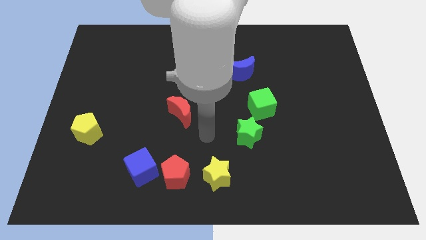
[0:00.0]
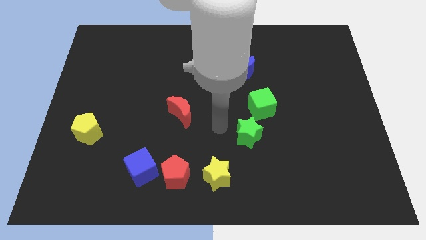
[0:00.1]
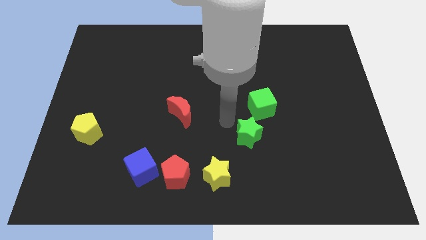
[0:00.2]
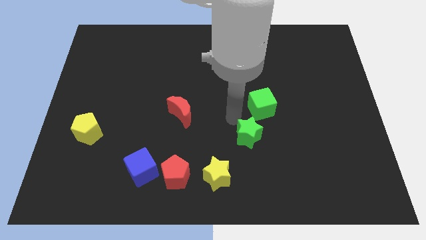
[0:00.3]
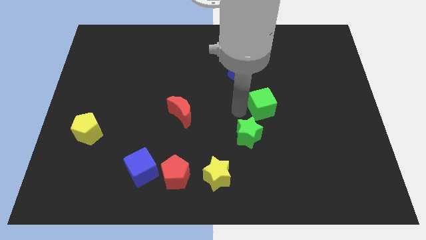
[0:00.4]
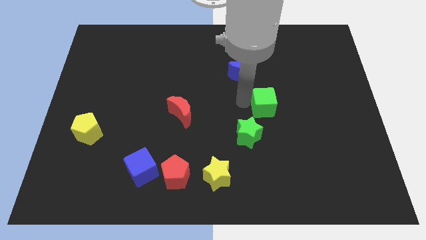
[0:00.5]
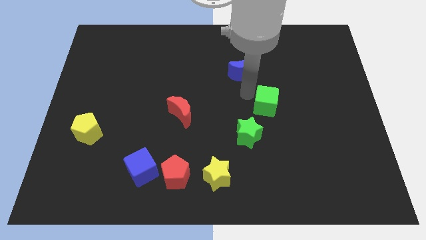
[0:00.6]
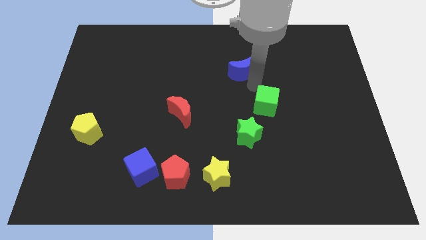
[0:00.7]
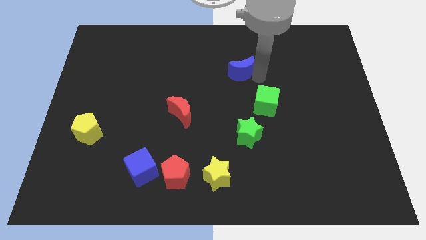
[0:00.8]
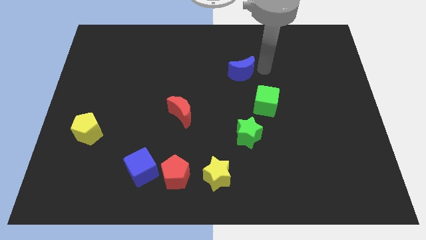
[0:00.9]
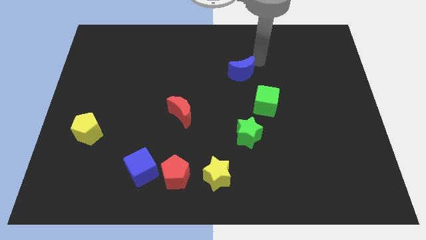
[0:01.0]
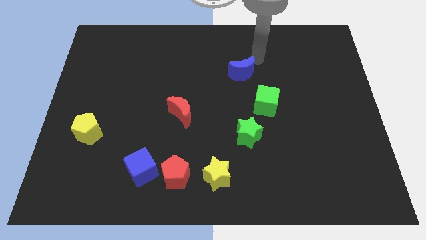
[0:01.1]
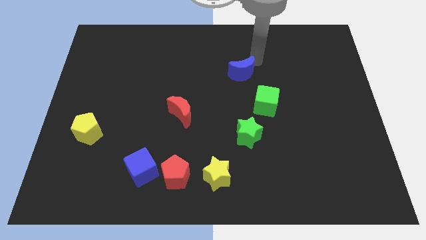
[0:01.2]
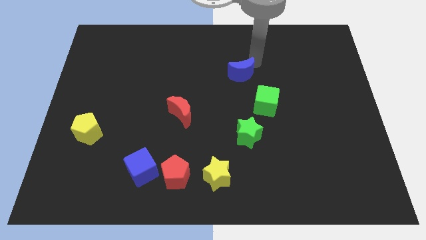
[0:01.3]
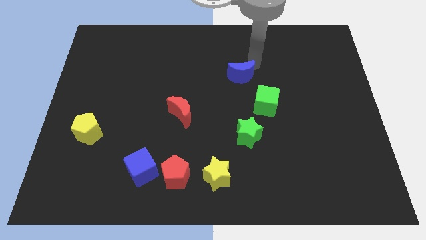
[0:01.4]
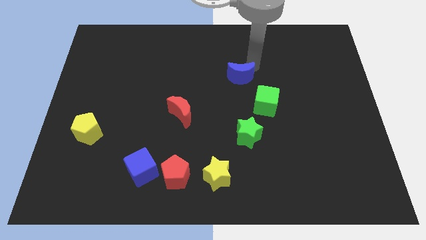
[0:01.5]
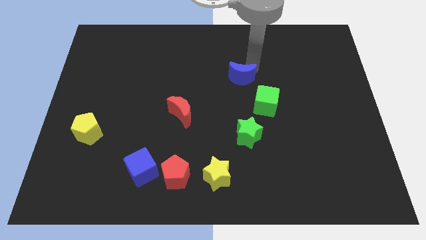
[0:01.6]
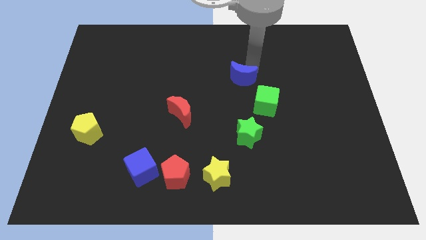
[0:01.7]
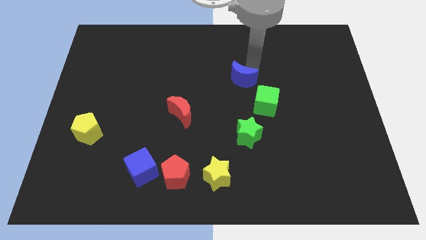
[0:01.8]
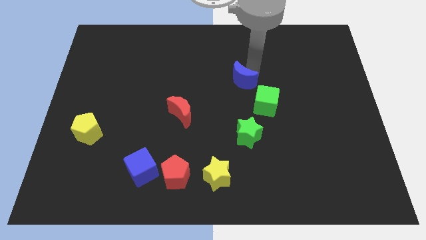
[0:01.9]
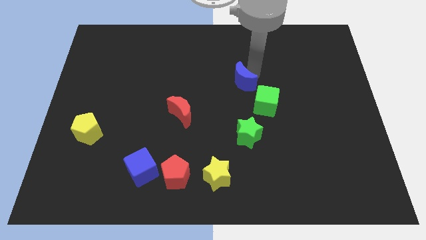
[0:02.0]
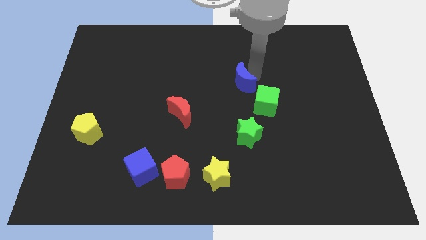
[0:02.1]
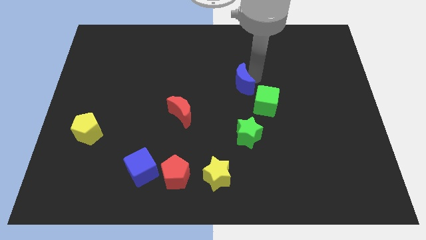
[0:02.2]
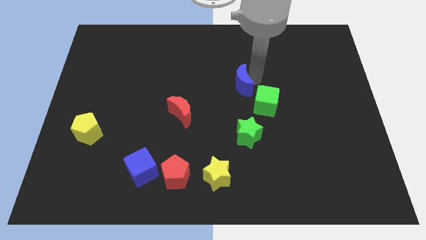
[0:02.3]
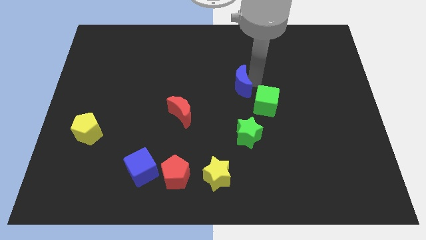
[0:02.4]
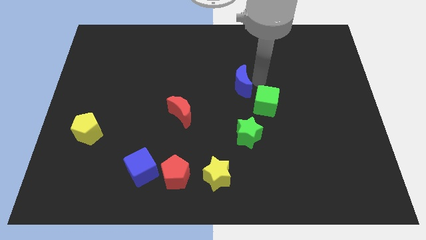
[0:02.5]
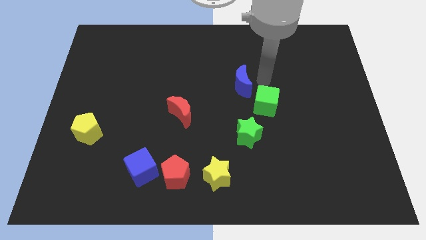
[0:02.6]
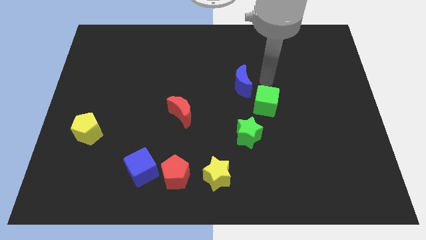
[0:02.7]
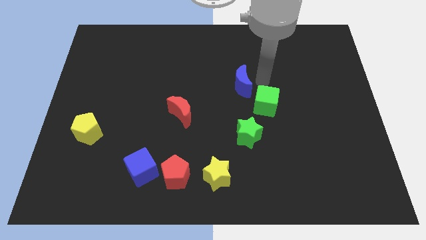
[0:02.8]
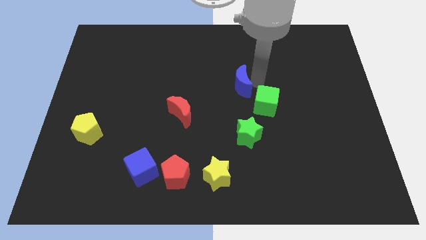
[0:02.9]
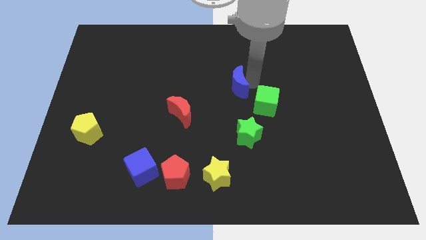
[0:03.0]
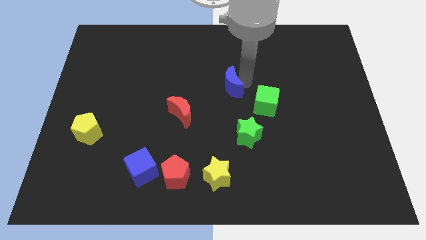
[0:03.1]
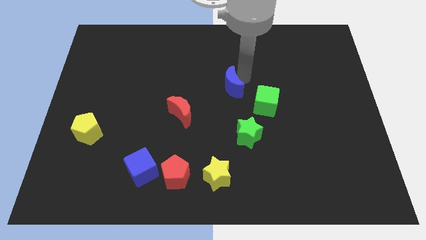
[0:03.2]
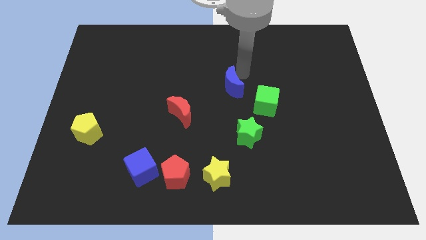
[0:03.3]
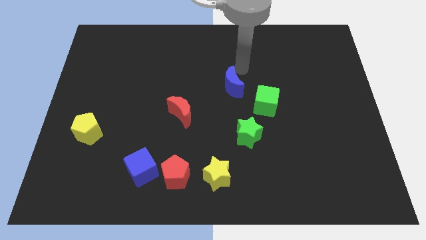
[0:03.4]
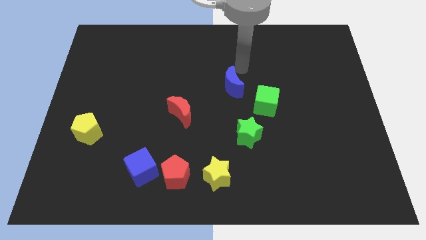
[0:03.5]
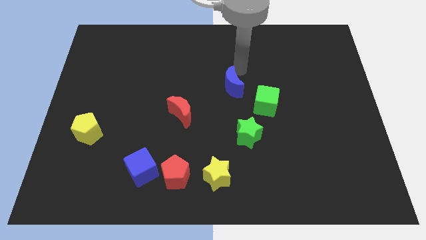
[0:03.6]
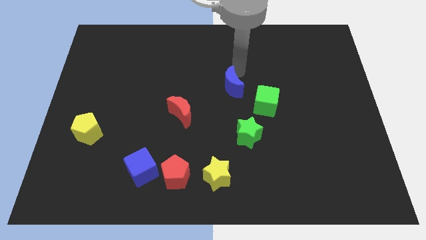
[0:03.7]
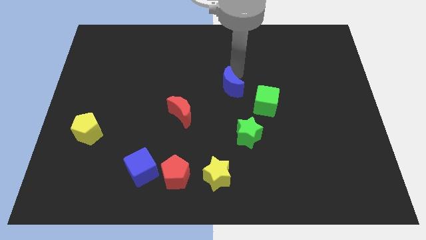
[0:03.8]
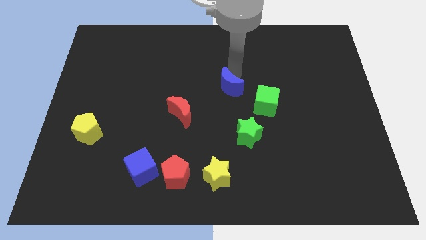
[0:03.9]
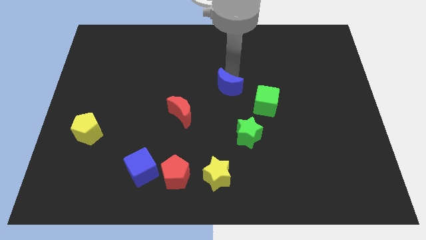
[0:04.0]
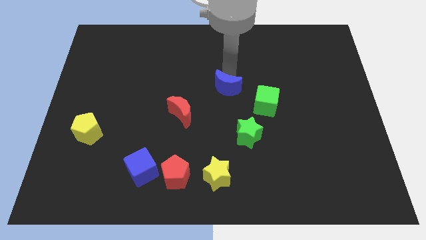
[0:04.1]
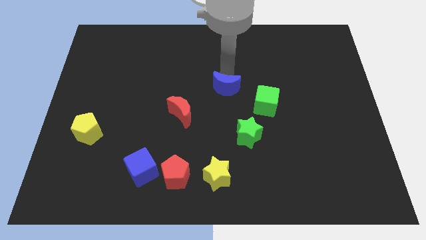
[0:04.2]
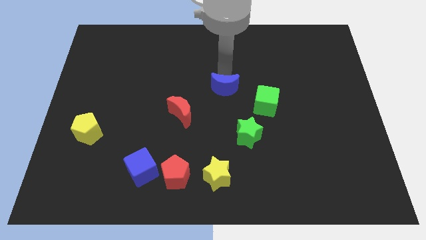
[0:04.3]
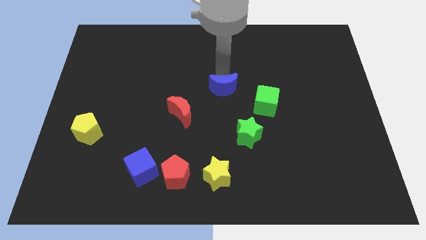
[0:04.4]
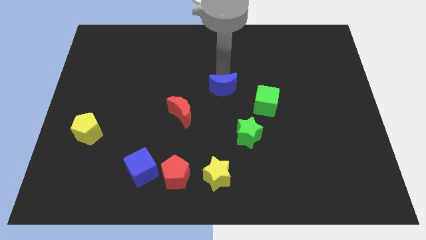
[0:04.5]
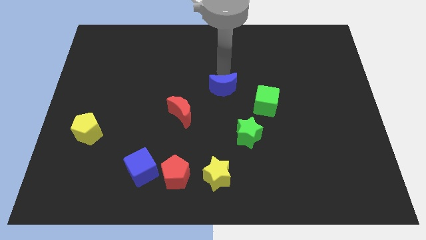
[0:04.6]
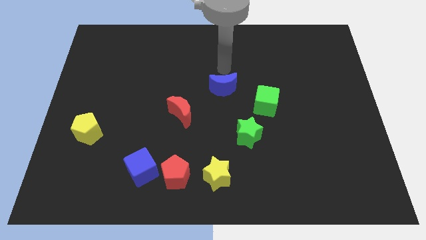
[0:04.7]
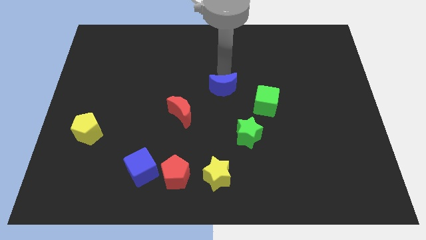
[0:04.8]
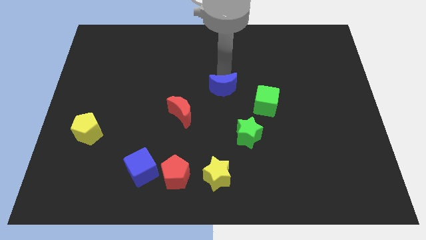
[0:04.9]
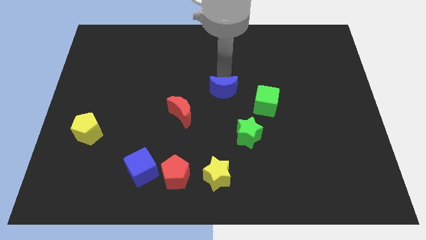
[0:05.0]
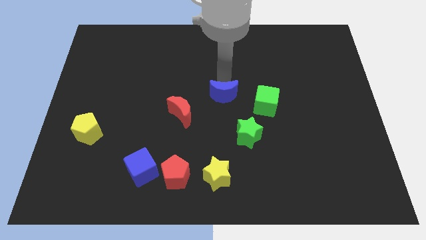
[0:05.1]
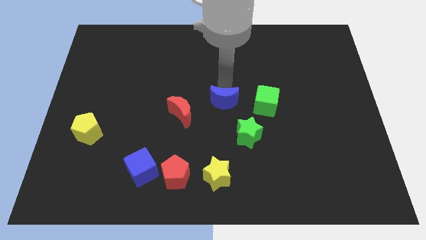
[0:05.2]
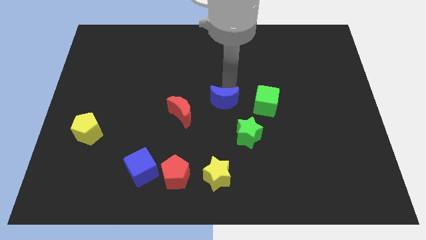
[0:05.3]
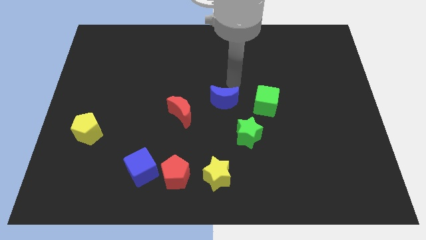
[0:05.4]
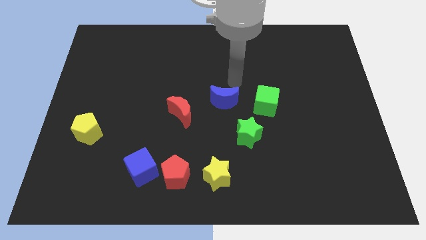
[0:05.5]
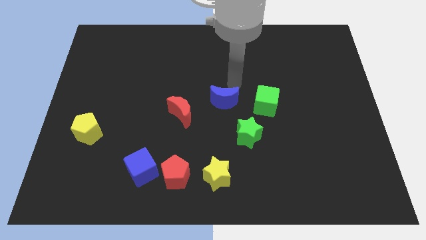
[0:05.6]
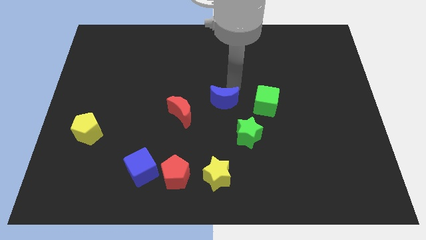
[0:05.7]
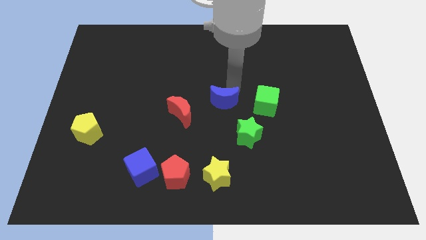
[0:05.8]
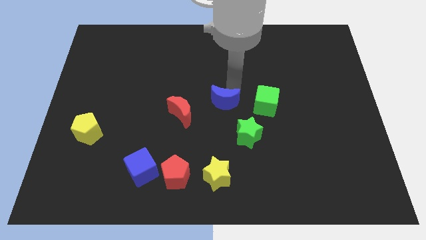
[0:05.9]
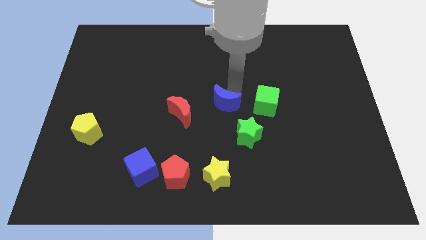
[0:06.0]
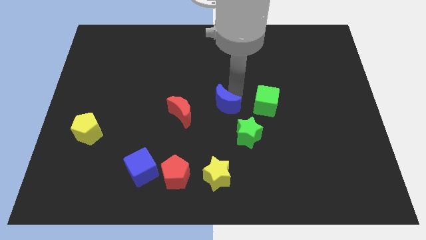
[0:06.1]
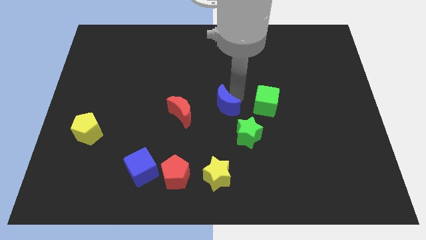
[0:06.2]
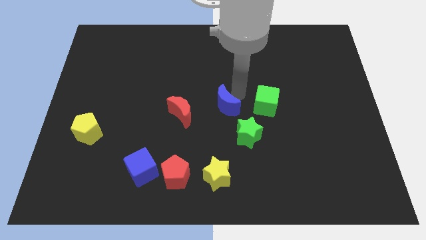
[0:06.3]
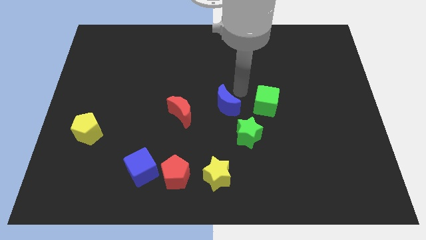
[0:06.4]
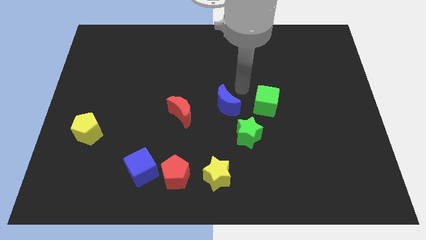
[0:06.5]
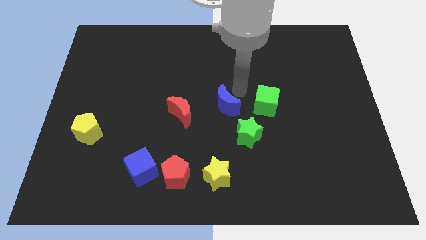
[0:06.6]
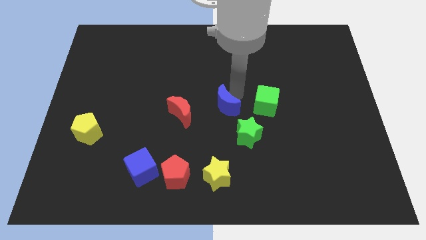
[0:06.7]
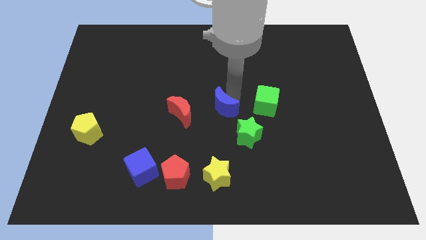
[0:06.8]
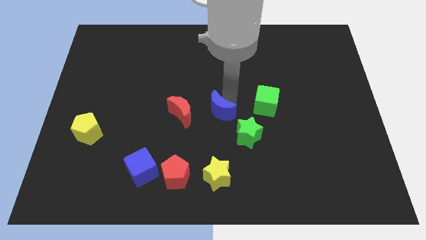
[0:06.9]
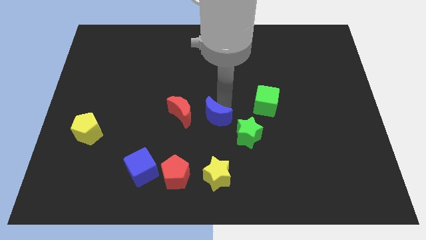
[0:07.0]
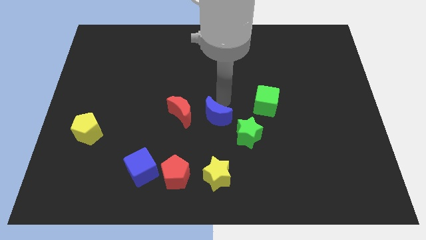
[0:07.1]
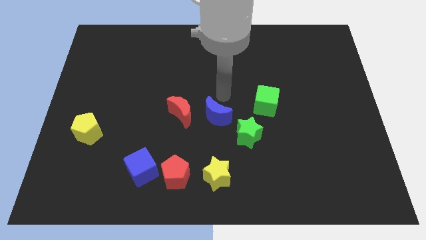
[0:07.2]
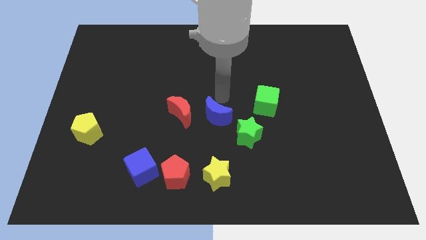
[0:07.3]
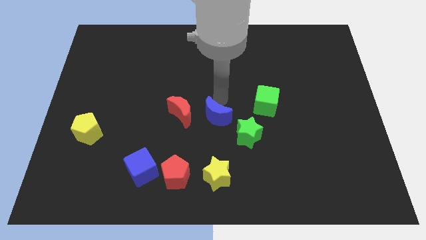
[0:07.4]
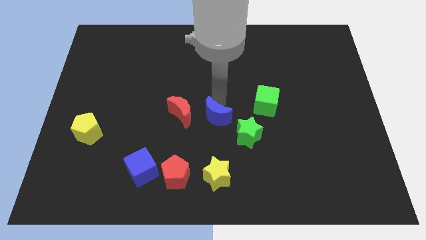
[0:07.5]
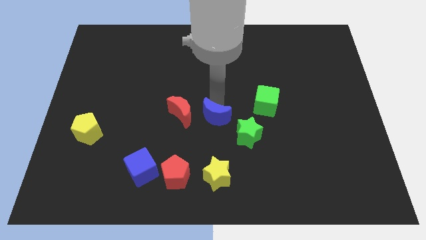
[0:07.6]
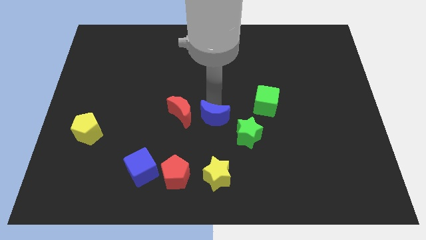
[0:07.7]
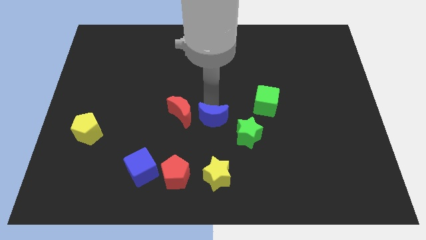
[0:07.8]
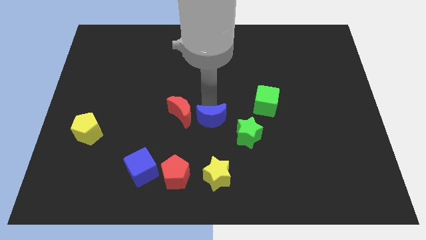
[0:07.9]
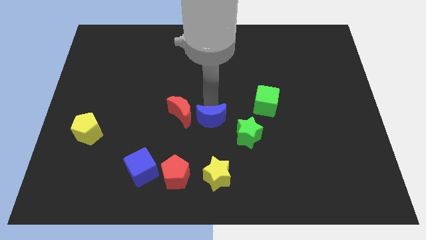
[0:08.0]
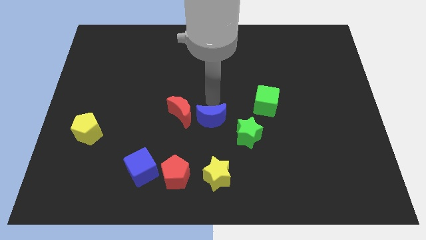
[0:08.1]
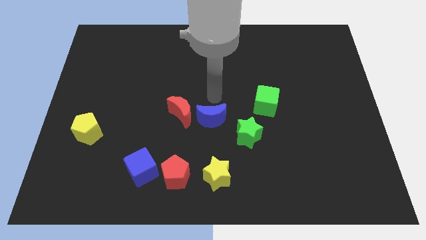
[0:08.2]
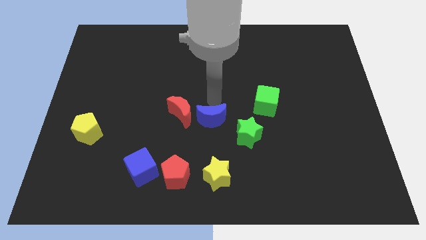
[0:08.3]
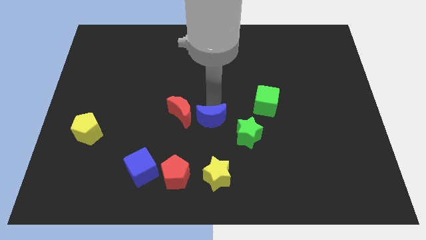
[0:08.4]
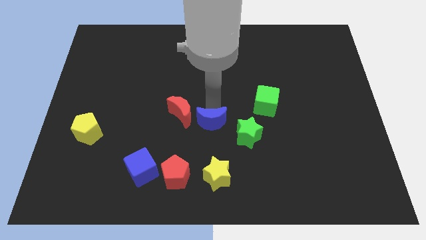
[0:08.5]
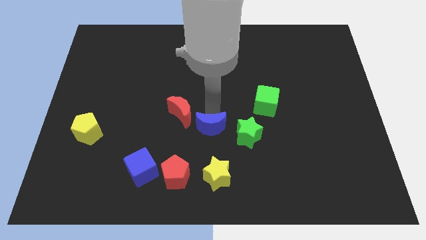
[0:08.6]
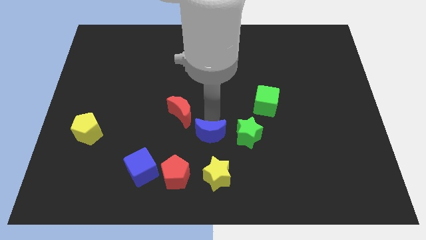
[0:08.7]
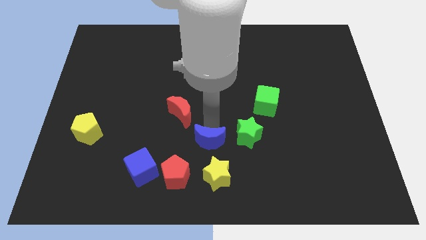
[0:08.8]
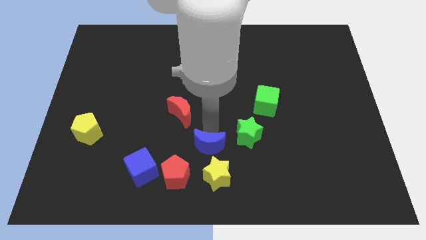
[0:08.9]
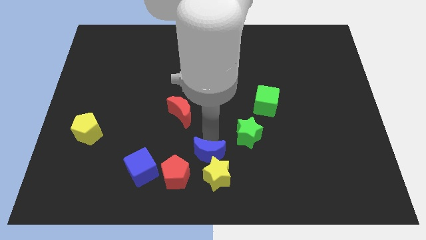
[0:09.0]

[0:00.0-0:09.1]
put the blue moon to the bottom side
